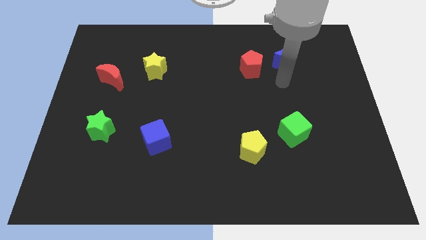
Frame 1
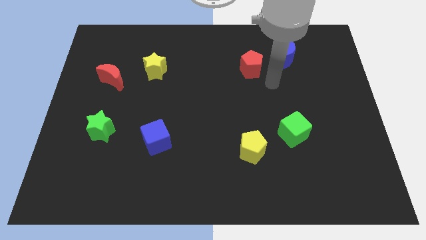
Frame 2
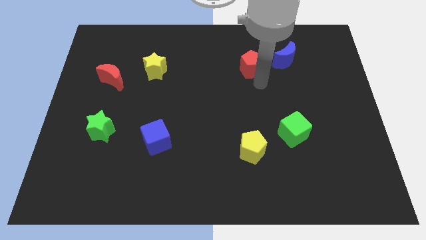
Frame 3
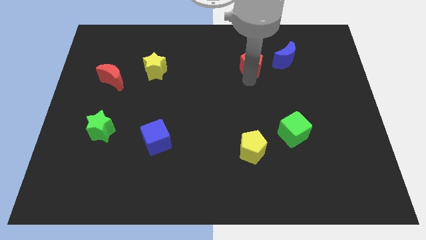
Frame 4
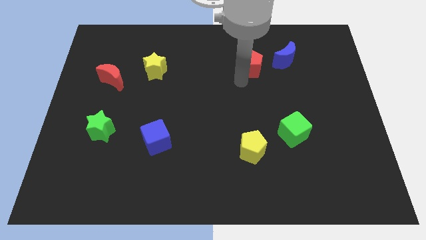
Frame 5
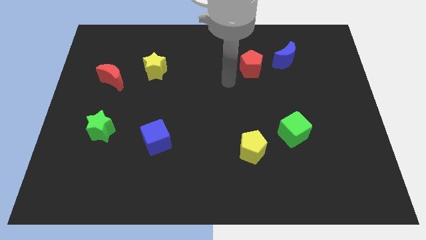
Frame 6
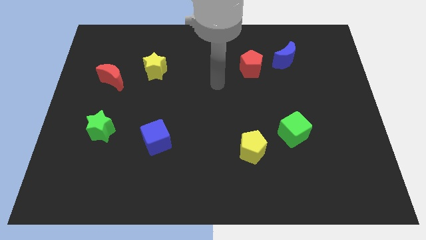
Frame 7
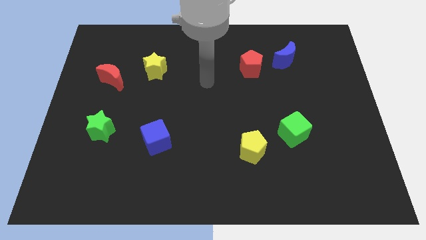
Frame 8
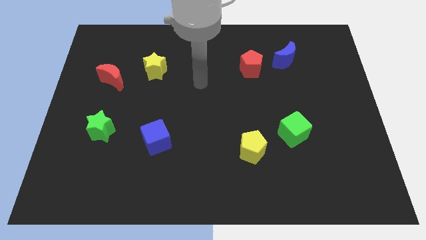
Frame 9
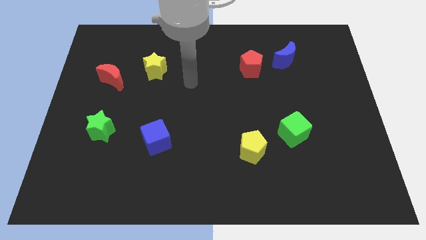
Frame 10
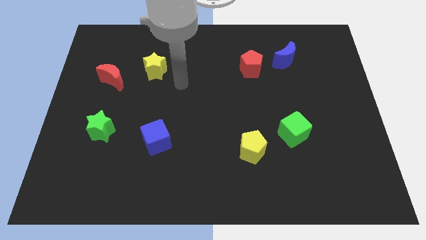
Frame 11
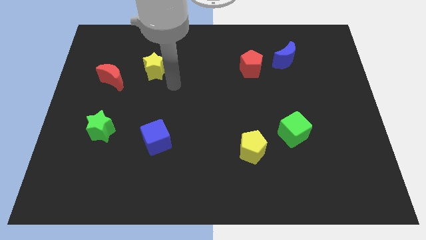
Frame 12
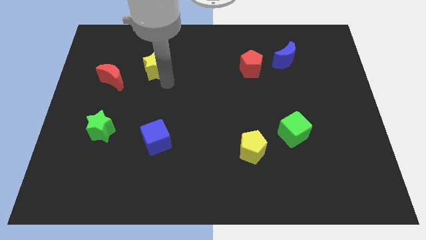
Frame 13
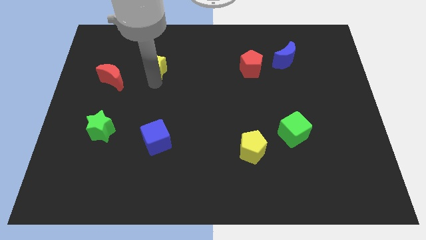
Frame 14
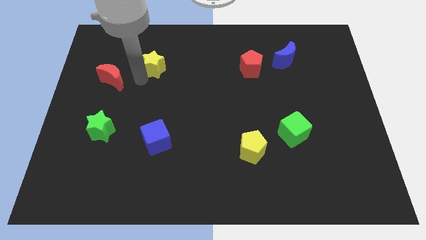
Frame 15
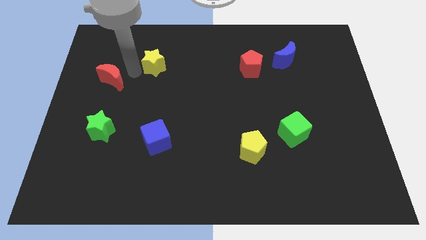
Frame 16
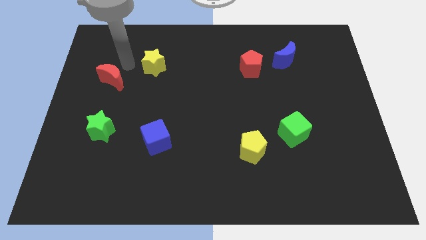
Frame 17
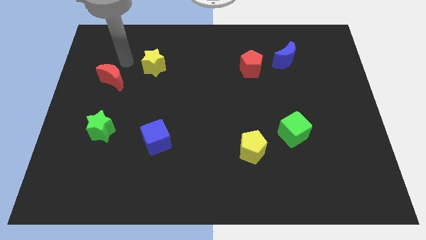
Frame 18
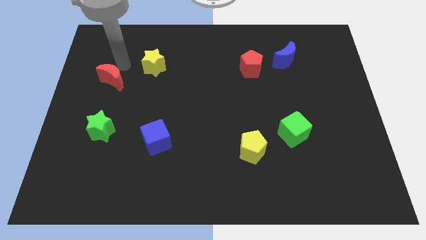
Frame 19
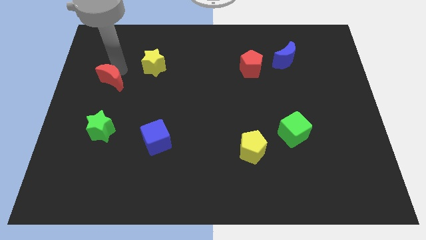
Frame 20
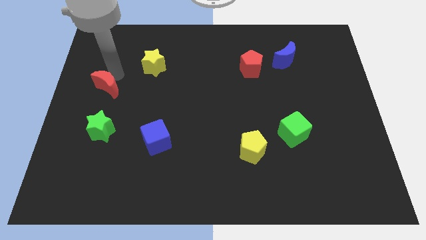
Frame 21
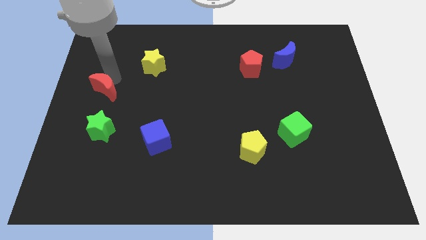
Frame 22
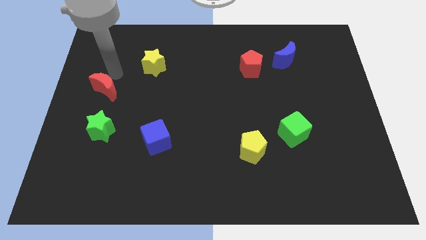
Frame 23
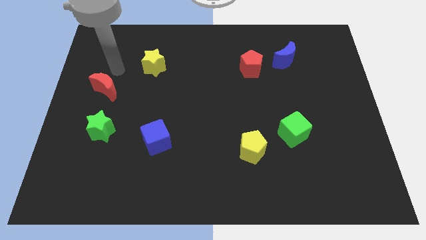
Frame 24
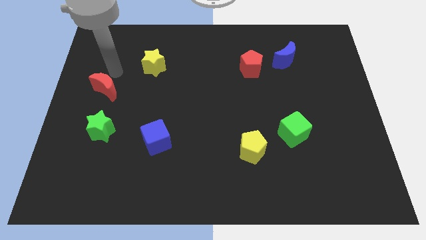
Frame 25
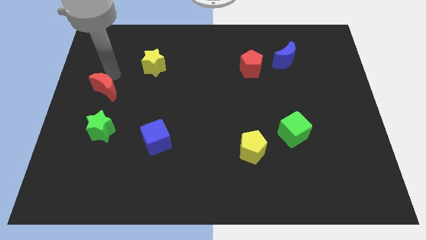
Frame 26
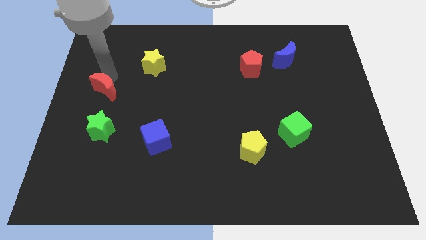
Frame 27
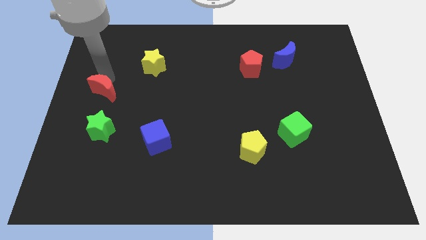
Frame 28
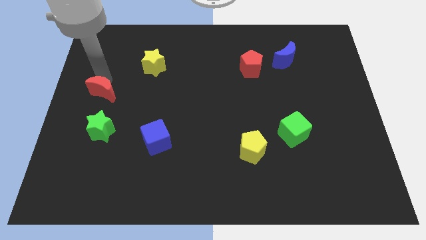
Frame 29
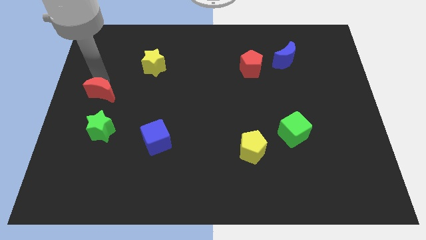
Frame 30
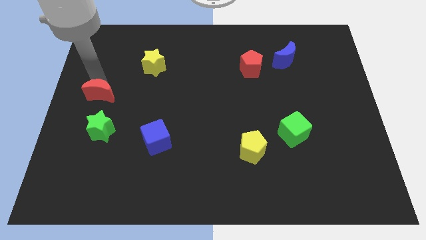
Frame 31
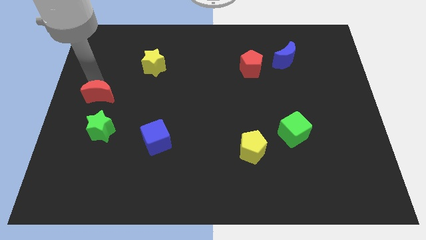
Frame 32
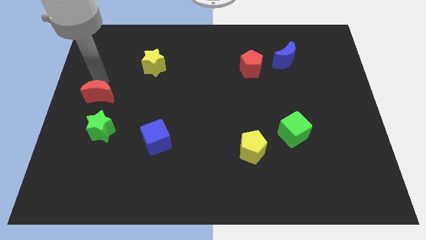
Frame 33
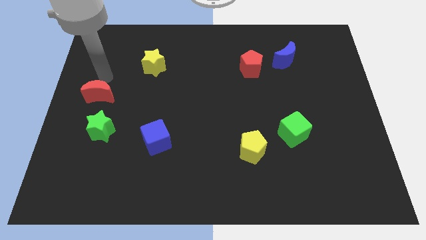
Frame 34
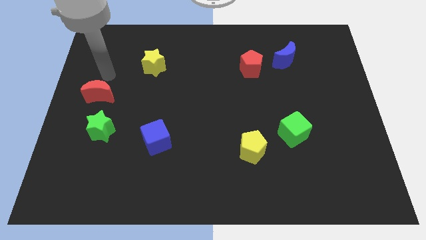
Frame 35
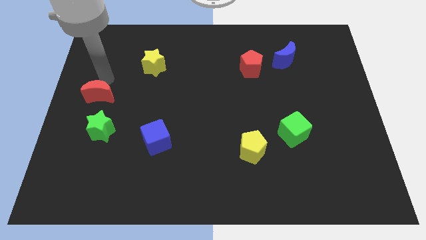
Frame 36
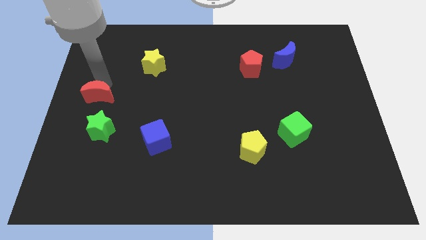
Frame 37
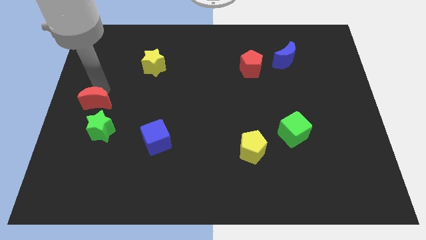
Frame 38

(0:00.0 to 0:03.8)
slide the red moon a little bit down

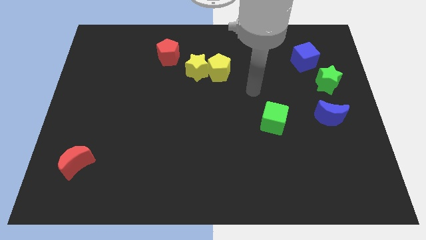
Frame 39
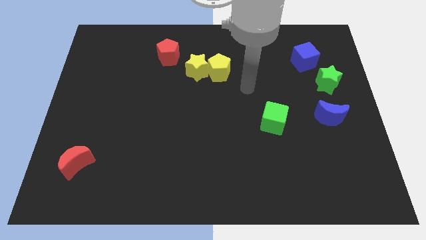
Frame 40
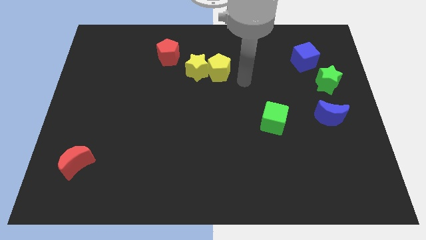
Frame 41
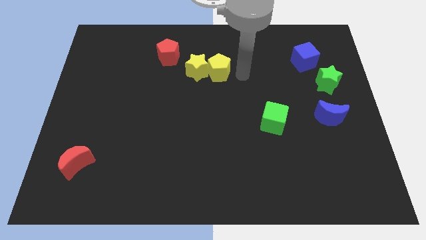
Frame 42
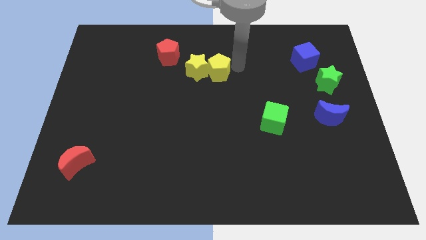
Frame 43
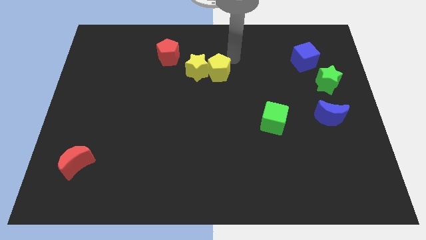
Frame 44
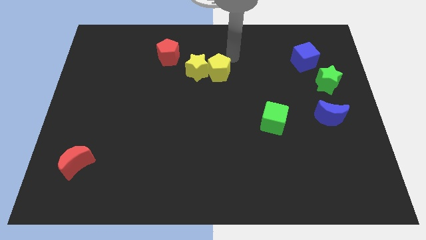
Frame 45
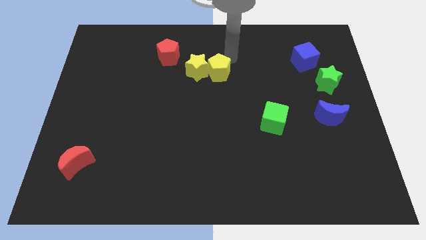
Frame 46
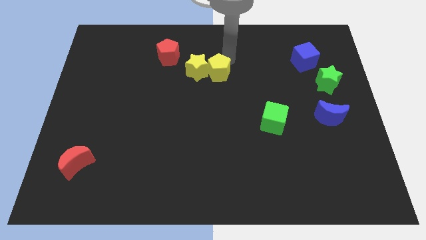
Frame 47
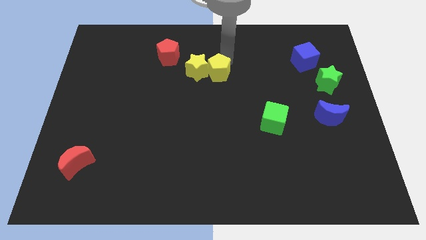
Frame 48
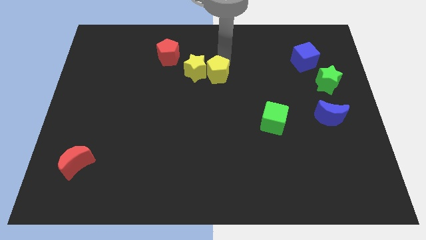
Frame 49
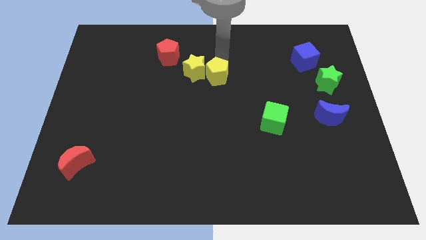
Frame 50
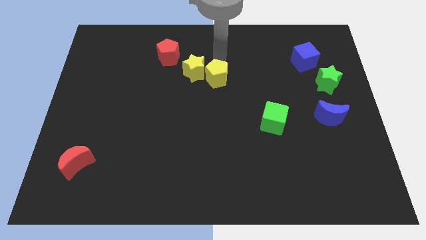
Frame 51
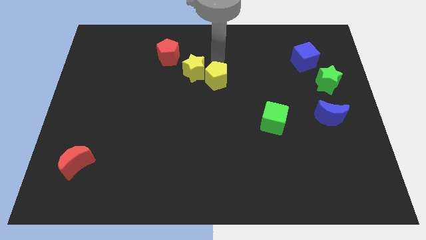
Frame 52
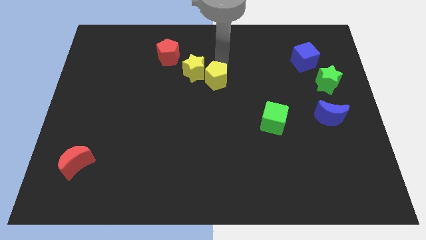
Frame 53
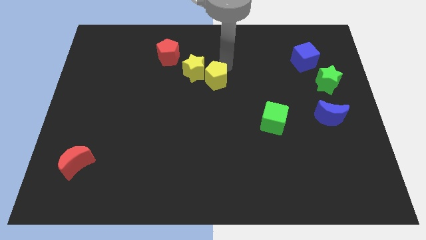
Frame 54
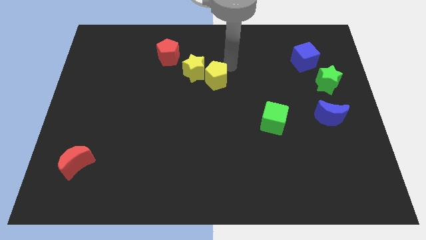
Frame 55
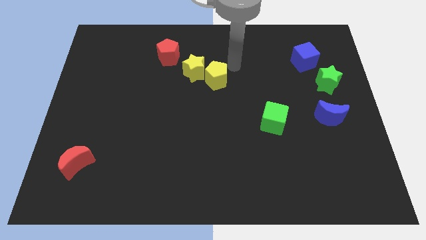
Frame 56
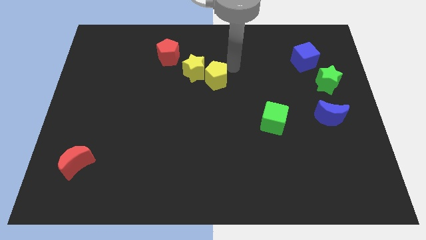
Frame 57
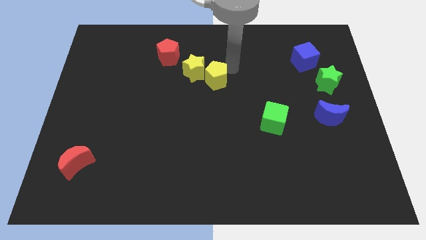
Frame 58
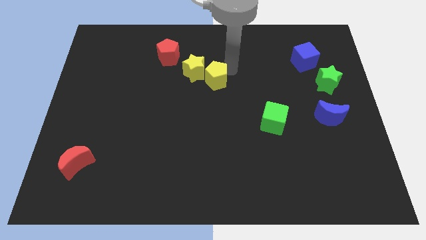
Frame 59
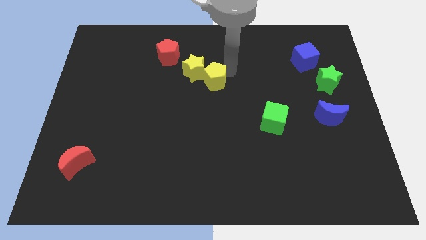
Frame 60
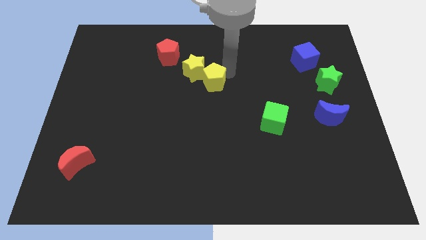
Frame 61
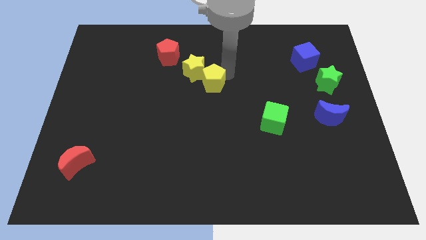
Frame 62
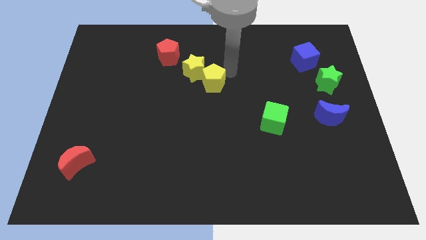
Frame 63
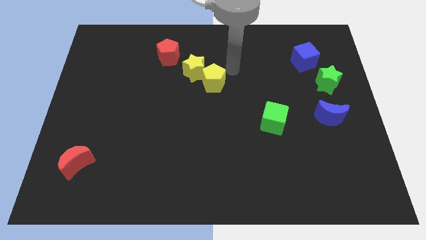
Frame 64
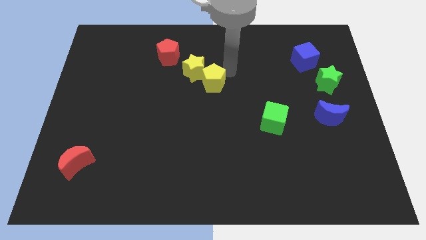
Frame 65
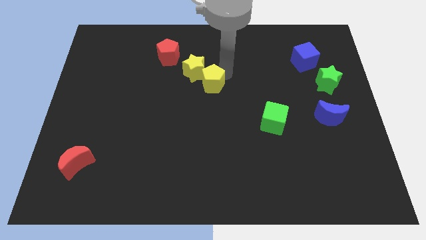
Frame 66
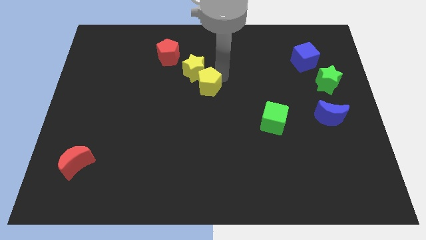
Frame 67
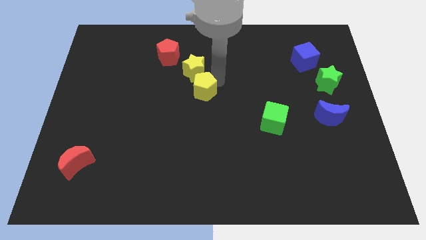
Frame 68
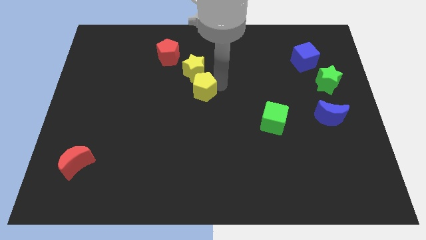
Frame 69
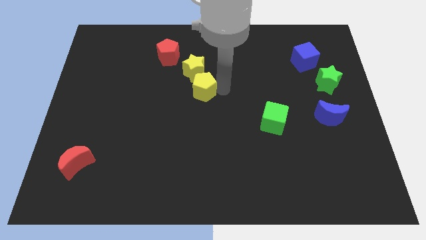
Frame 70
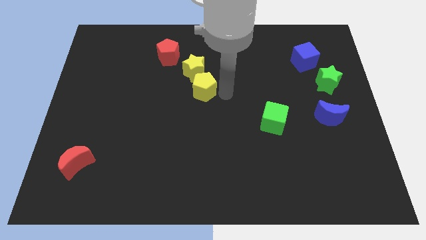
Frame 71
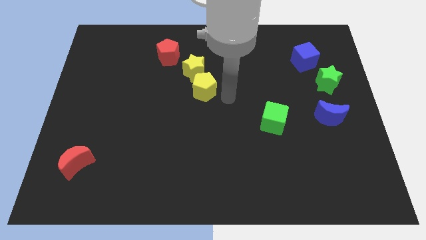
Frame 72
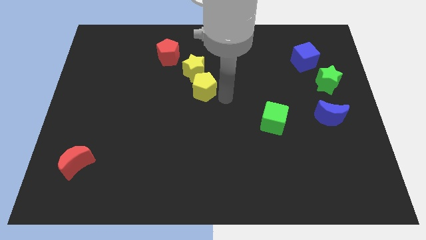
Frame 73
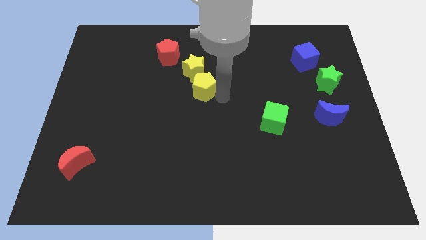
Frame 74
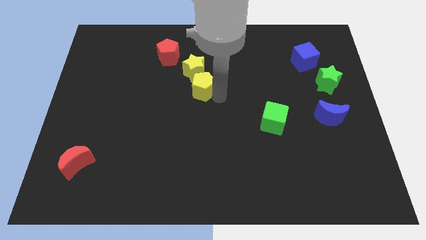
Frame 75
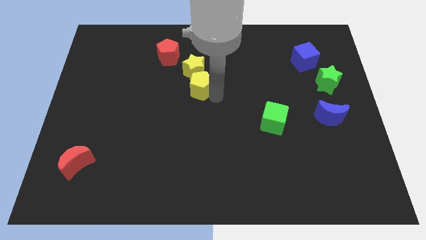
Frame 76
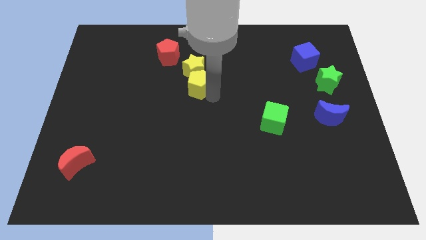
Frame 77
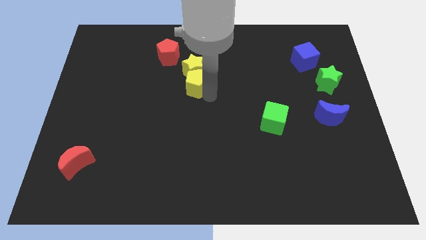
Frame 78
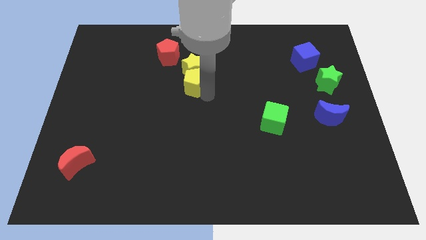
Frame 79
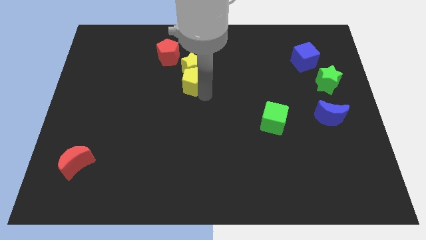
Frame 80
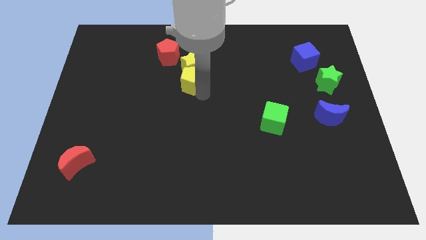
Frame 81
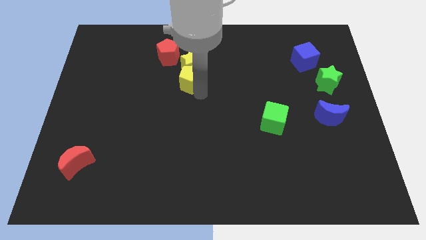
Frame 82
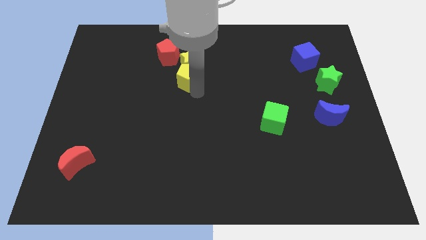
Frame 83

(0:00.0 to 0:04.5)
slightly move the yellow pentagon left
